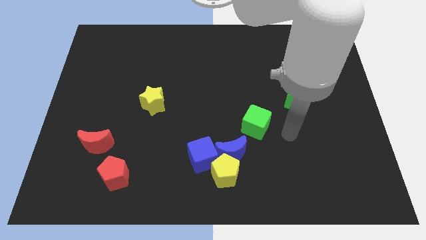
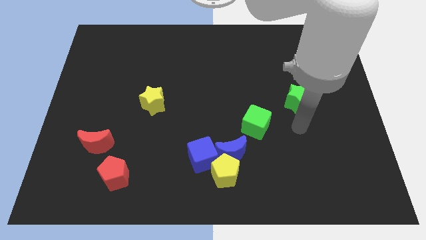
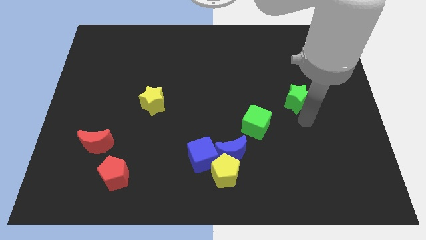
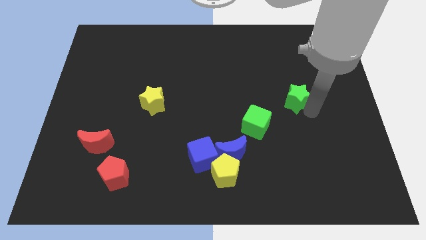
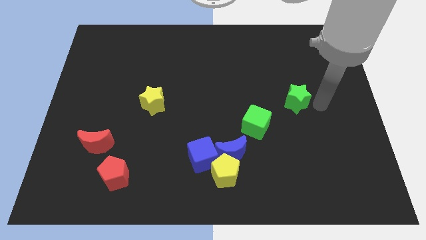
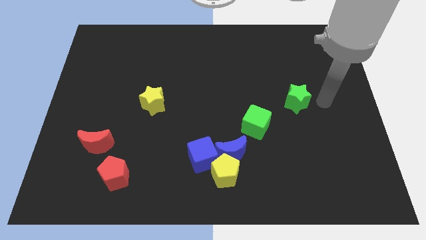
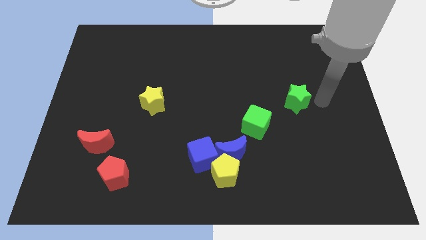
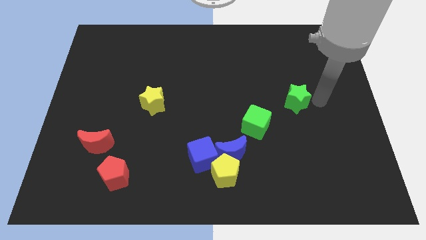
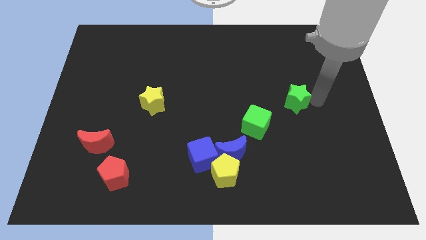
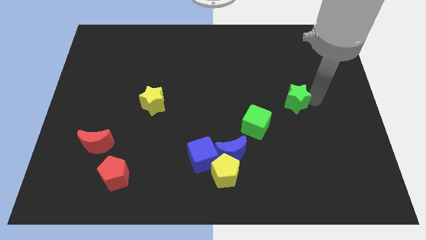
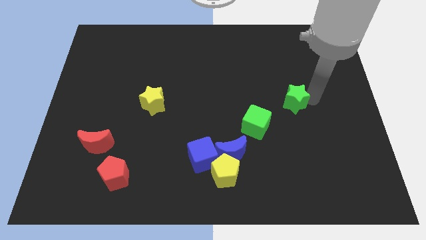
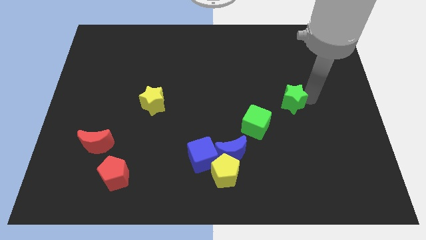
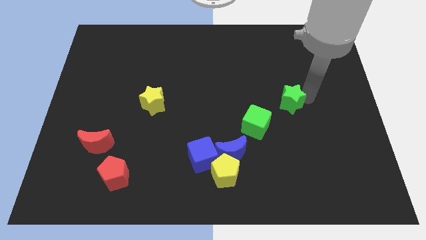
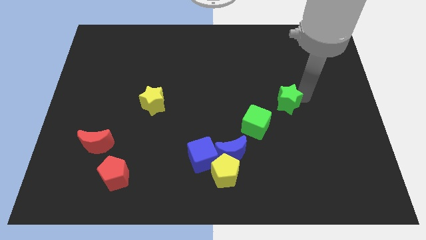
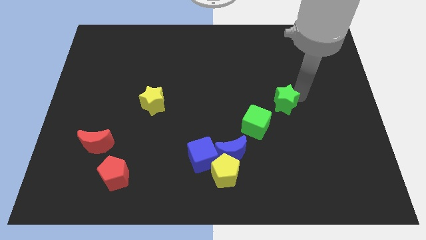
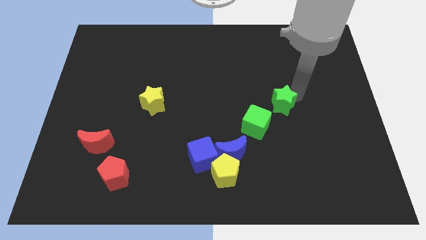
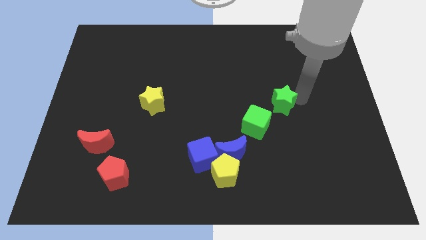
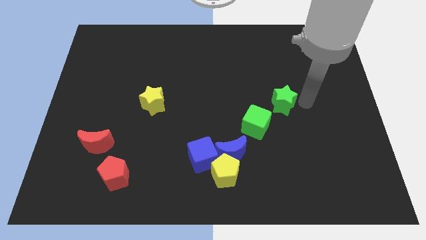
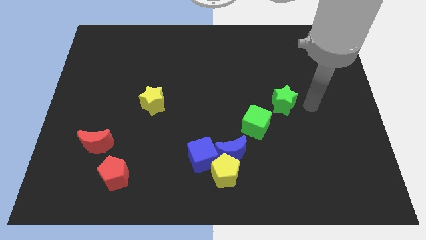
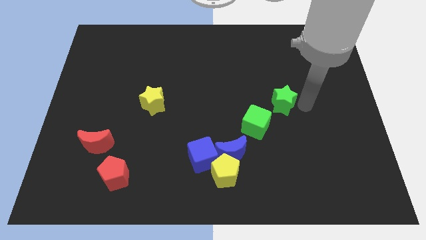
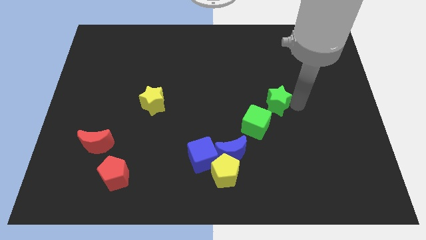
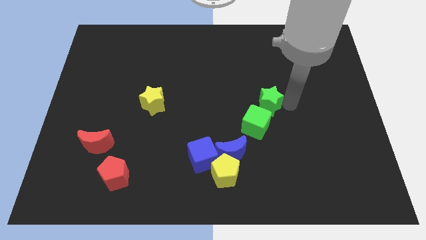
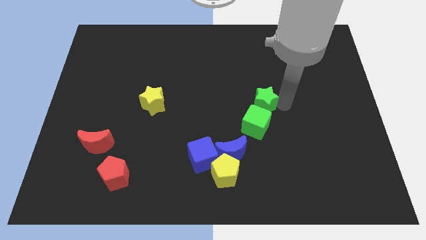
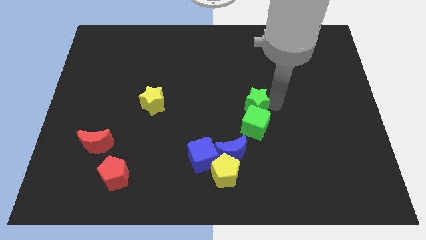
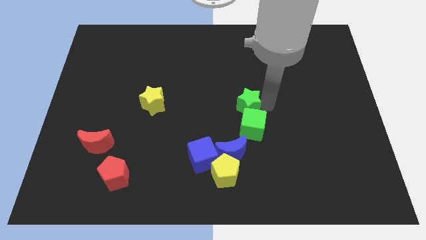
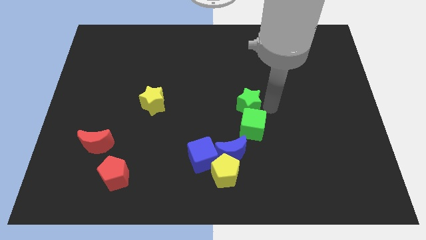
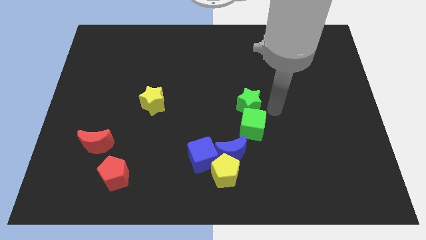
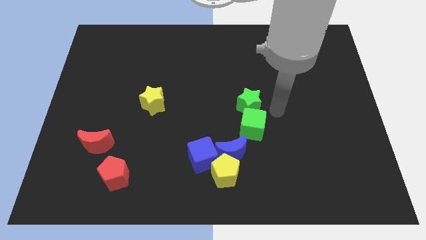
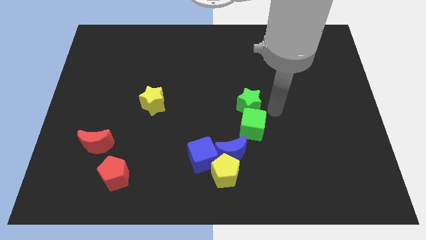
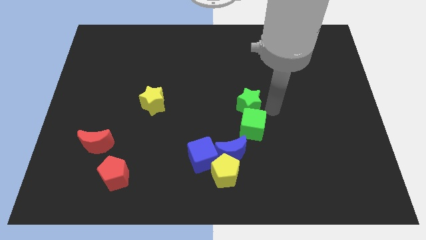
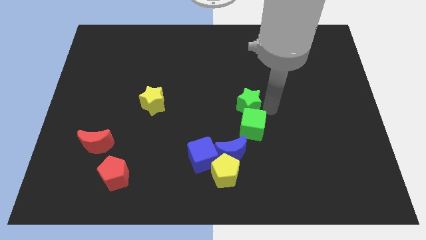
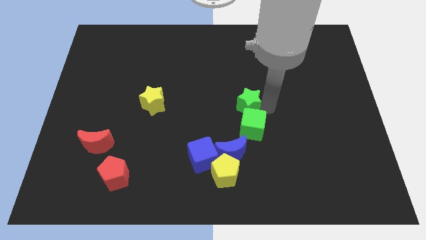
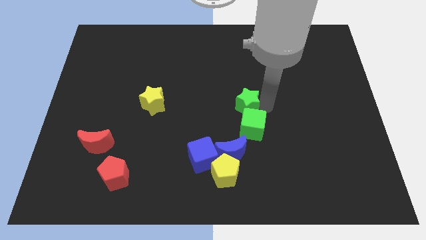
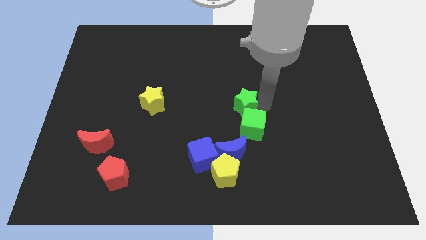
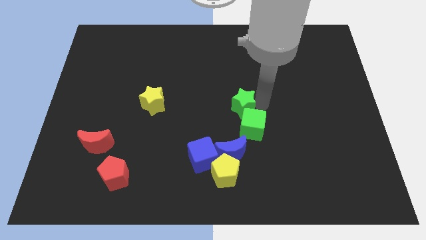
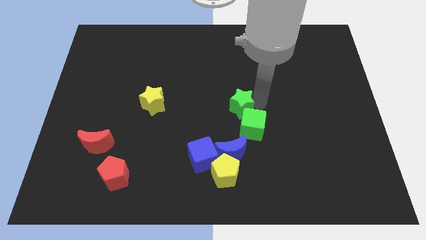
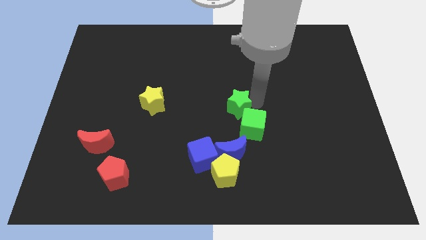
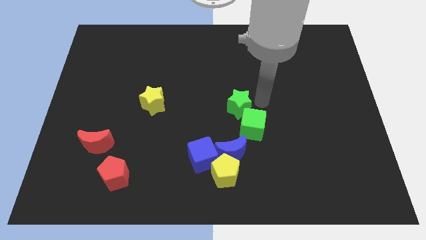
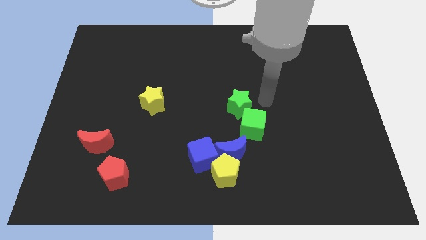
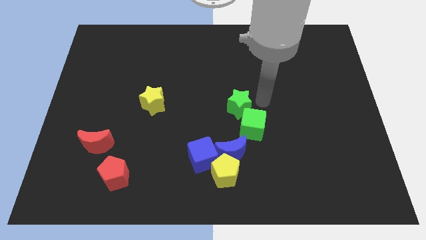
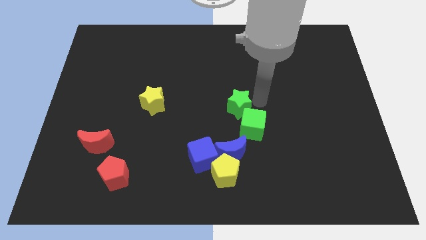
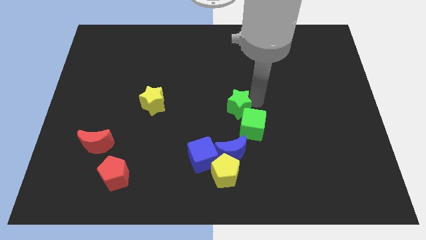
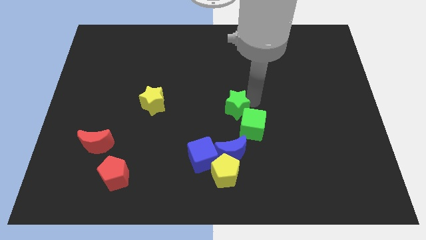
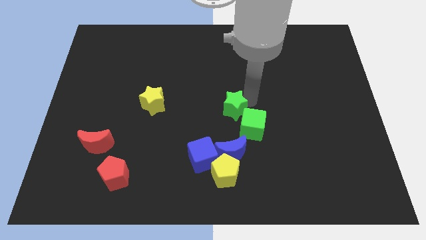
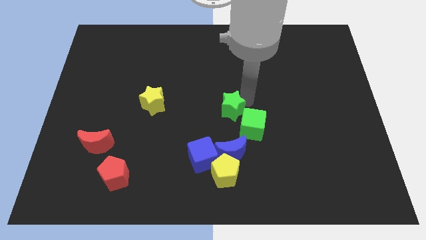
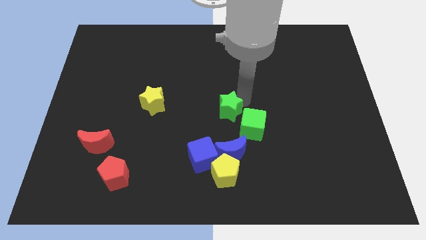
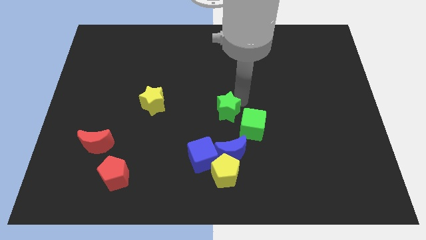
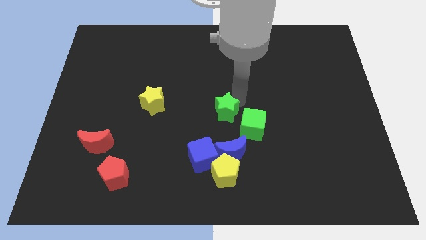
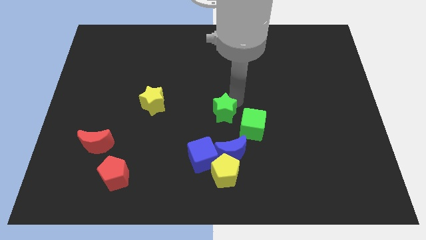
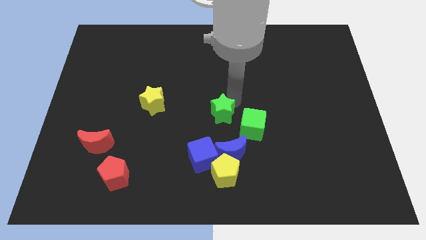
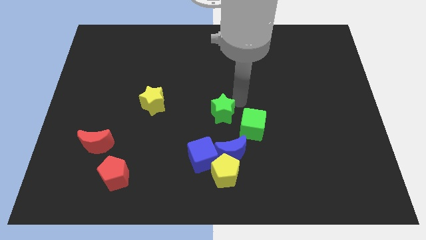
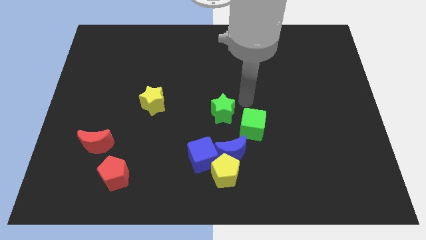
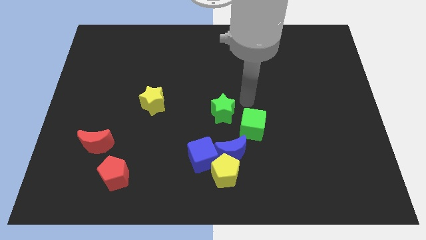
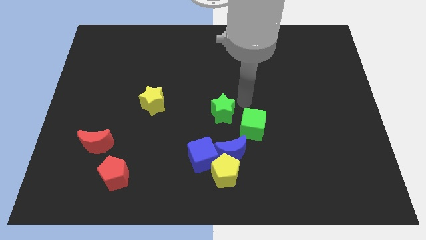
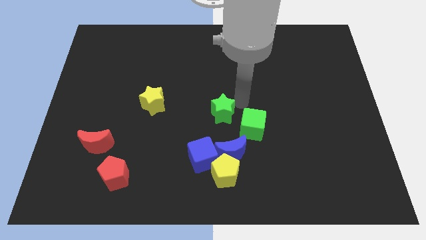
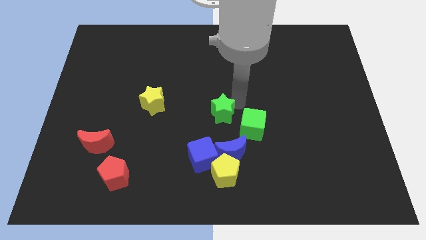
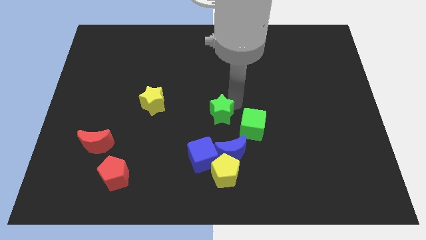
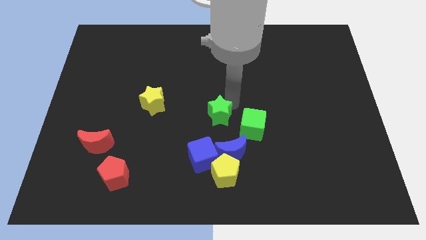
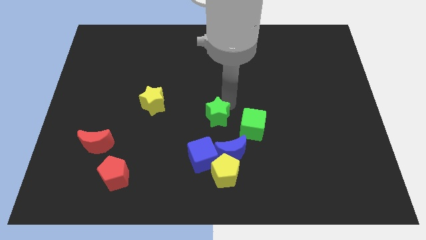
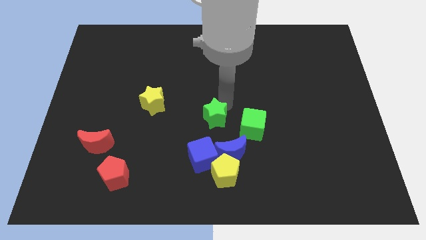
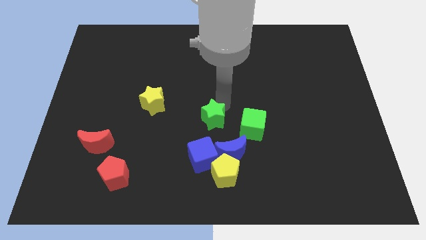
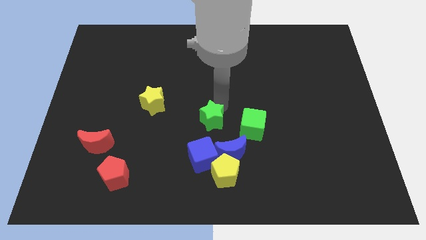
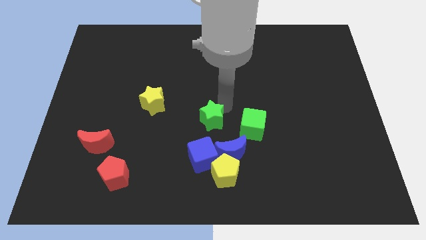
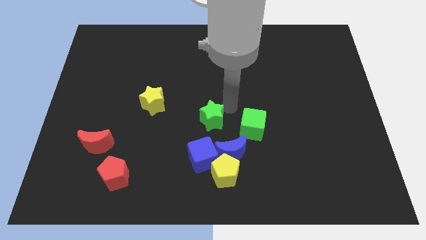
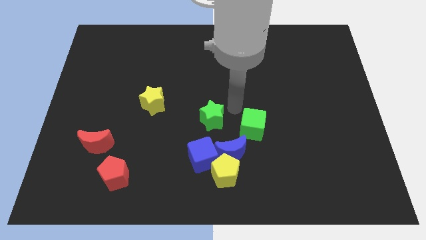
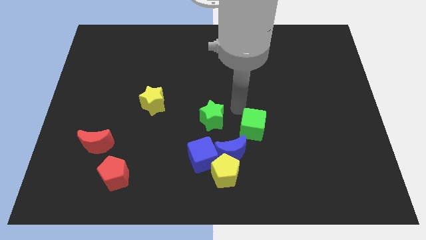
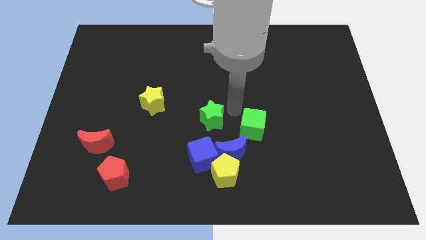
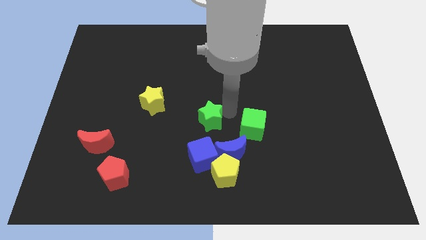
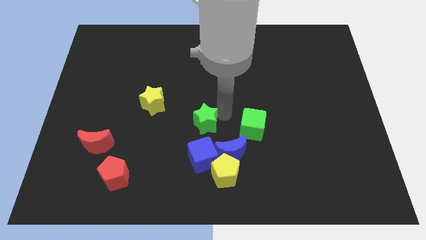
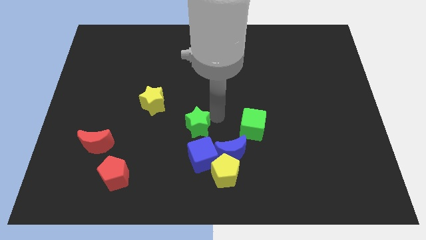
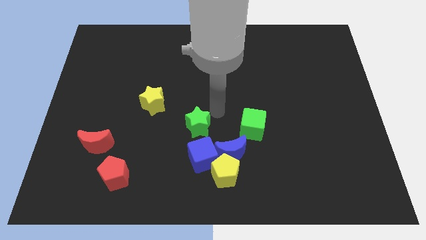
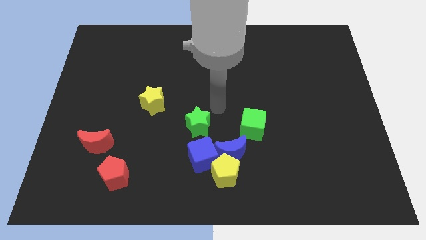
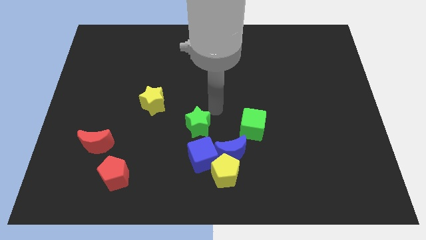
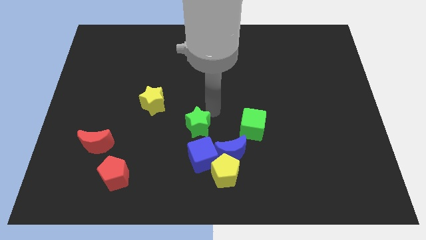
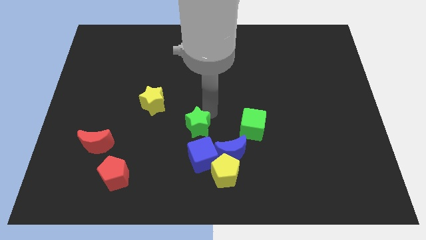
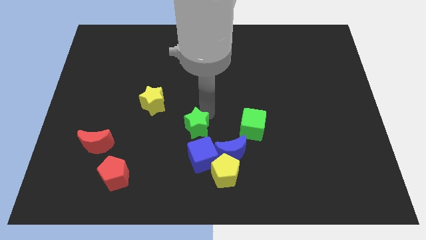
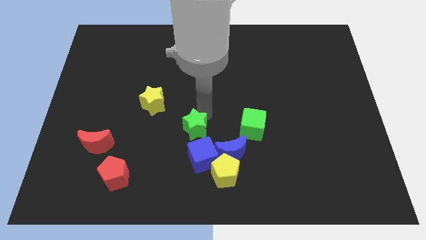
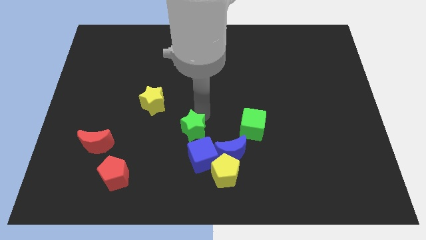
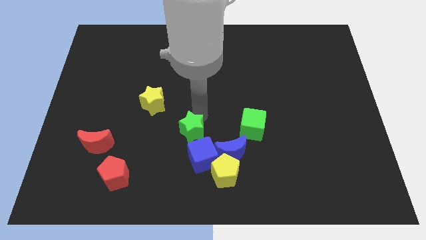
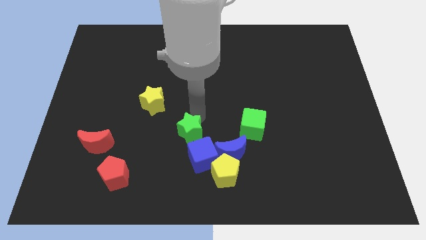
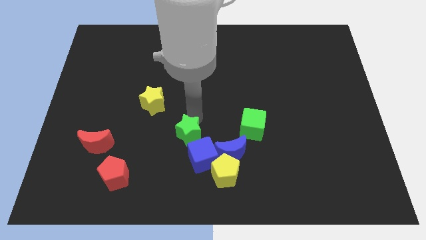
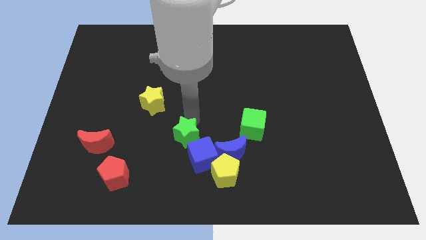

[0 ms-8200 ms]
move the green star to the left side of the blue moon
